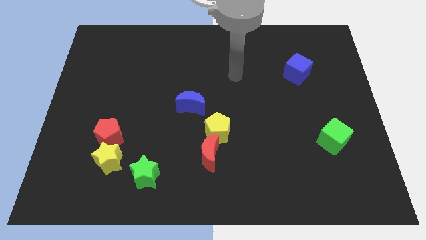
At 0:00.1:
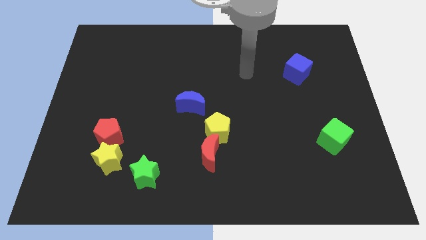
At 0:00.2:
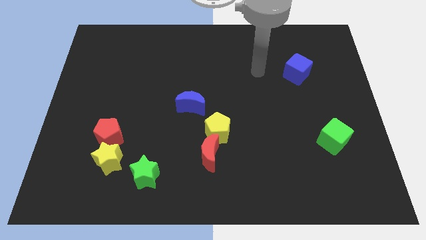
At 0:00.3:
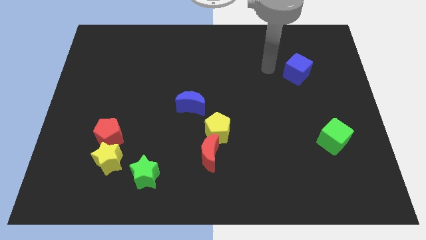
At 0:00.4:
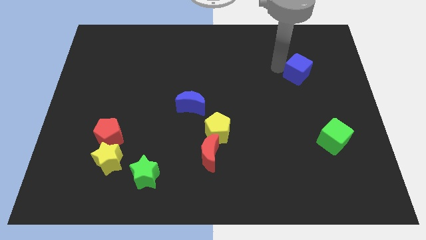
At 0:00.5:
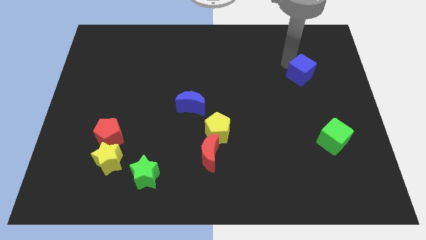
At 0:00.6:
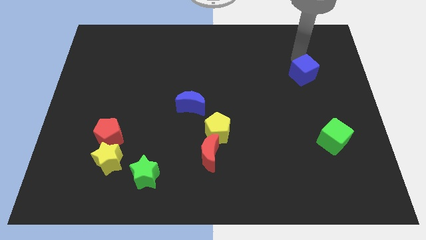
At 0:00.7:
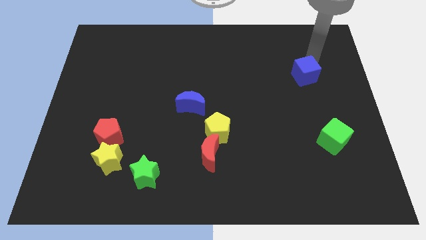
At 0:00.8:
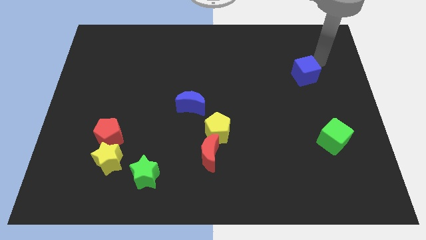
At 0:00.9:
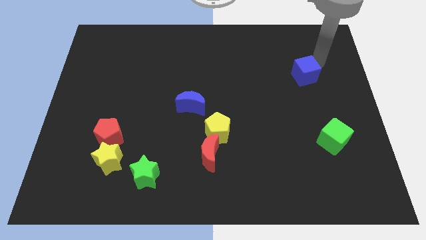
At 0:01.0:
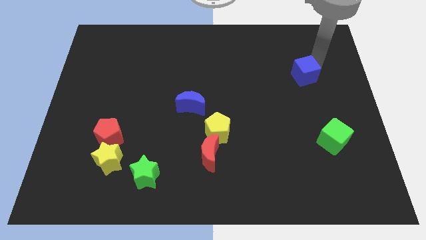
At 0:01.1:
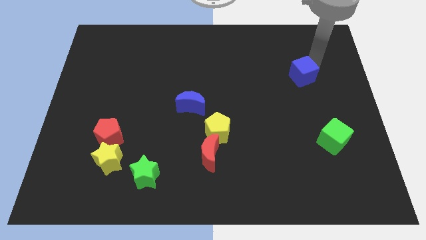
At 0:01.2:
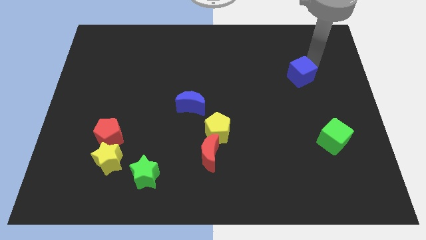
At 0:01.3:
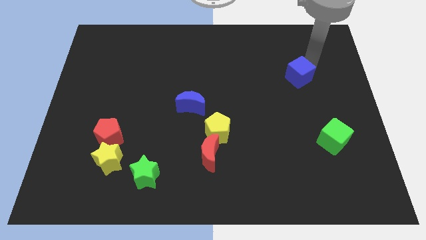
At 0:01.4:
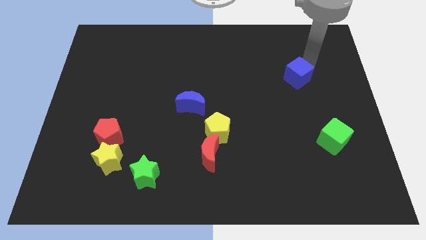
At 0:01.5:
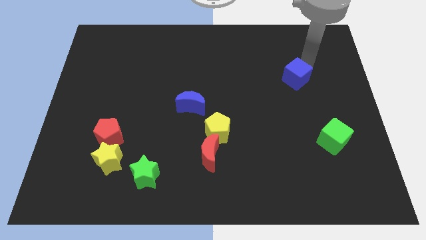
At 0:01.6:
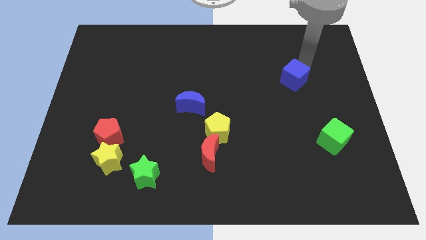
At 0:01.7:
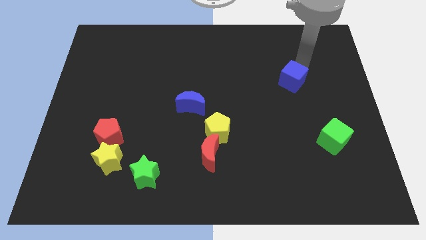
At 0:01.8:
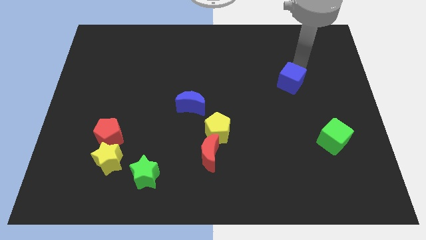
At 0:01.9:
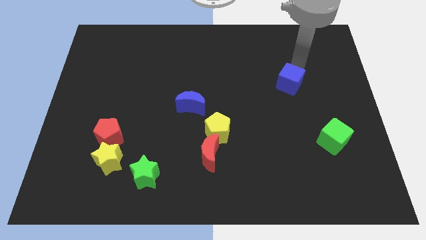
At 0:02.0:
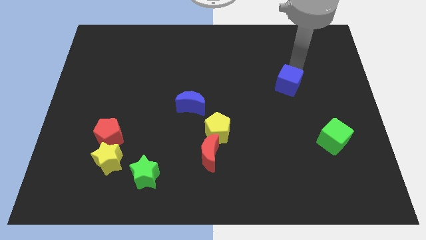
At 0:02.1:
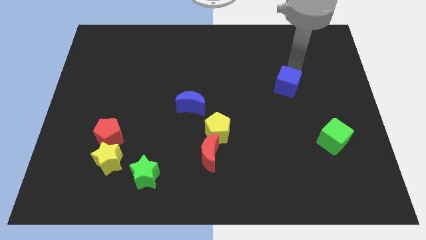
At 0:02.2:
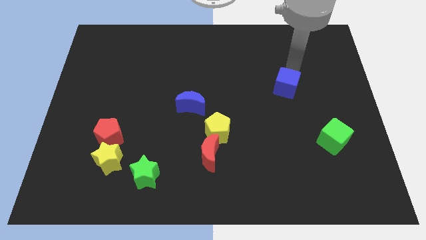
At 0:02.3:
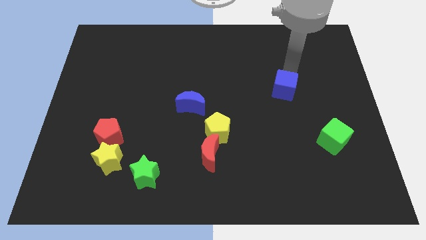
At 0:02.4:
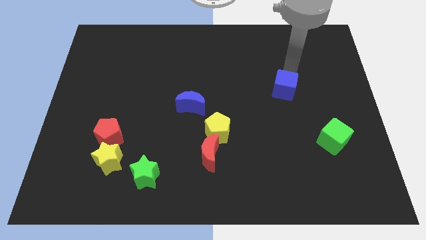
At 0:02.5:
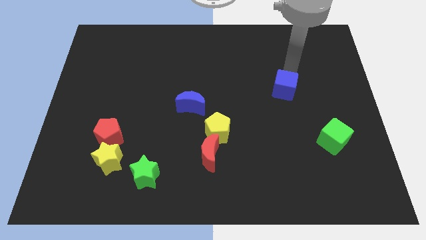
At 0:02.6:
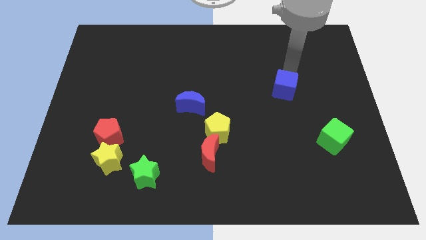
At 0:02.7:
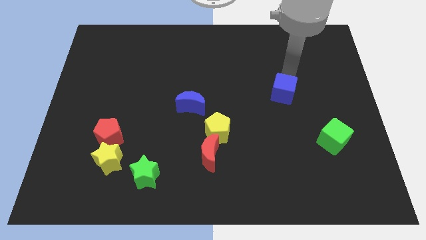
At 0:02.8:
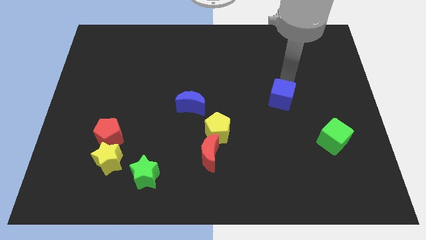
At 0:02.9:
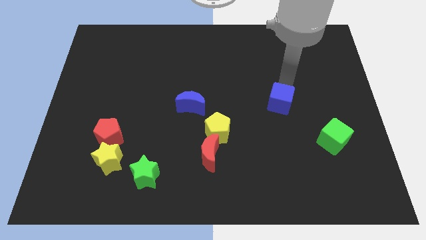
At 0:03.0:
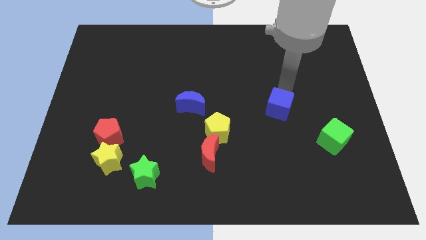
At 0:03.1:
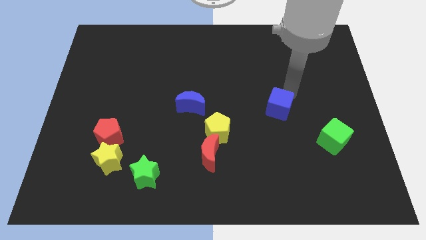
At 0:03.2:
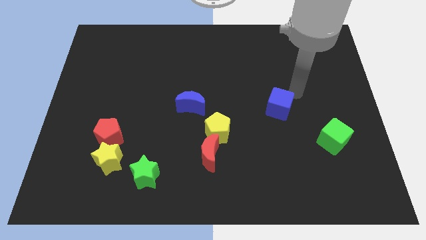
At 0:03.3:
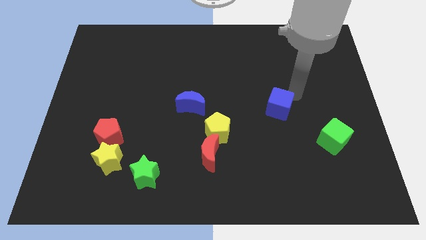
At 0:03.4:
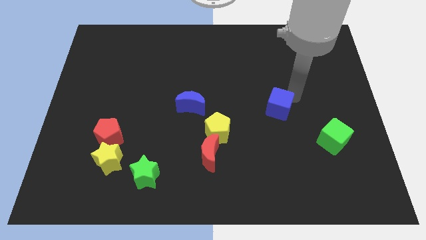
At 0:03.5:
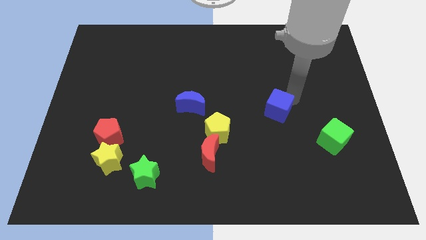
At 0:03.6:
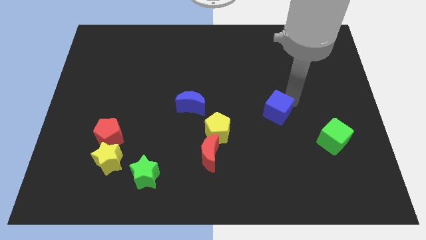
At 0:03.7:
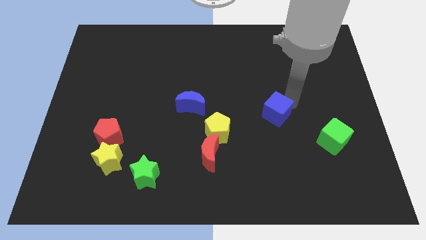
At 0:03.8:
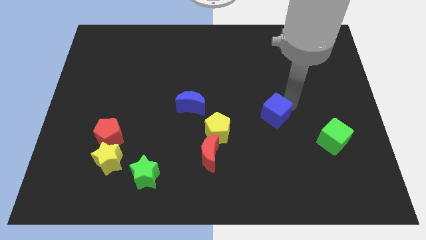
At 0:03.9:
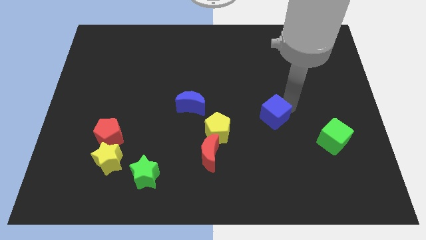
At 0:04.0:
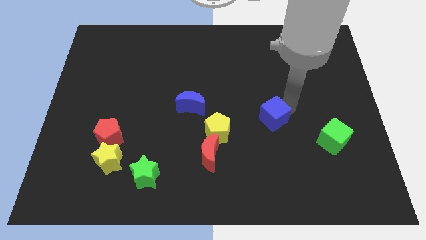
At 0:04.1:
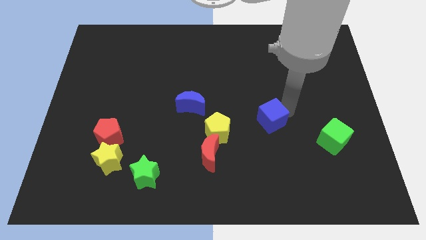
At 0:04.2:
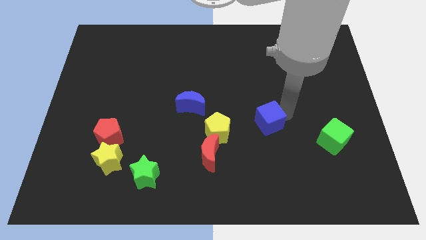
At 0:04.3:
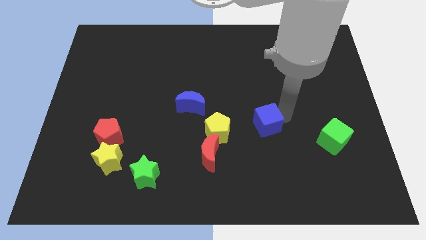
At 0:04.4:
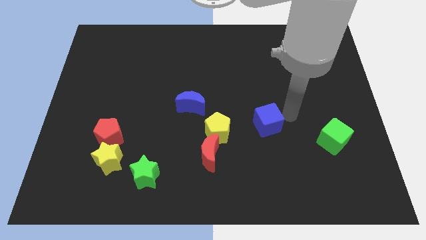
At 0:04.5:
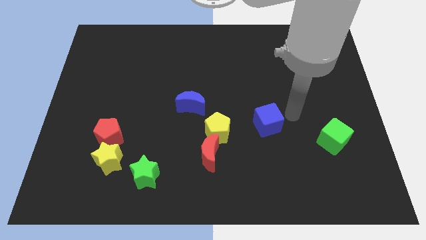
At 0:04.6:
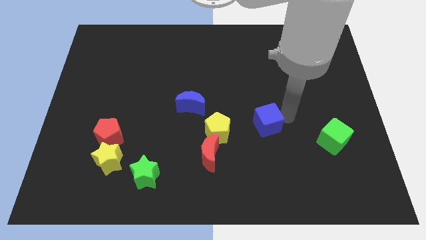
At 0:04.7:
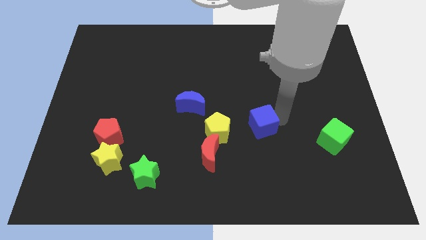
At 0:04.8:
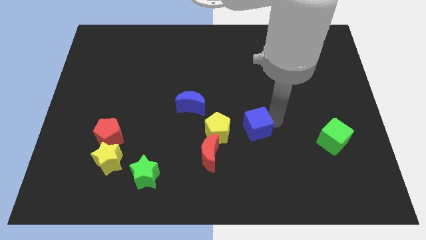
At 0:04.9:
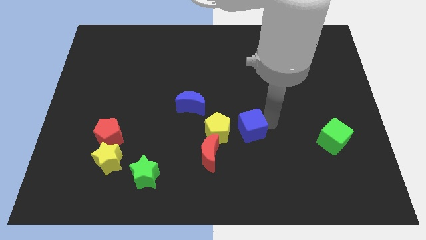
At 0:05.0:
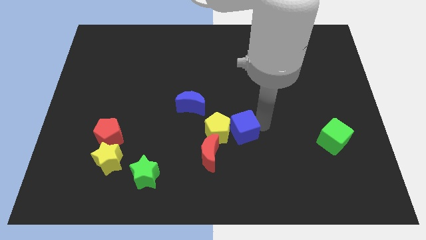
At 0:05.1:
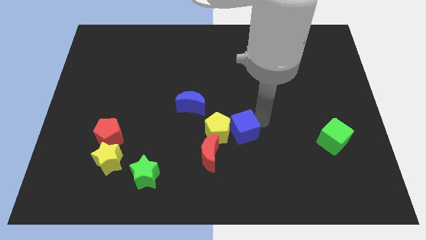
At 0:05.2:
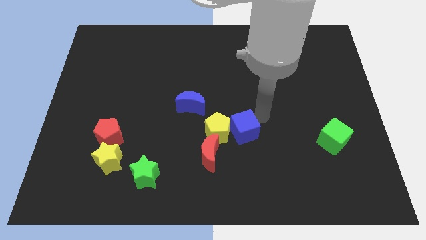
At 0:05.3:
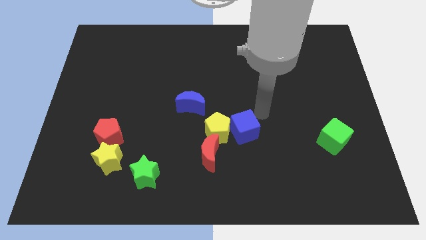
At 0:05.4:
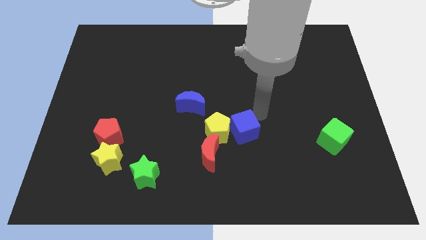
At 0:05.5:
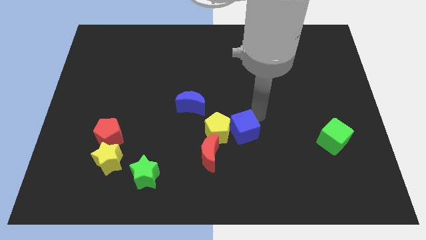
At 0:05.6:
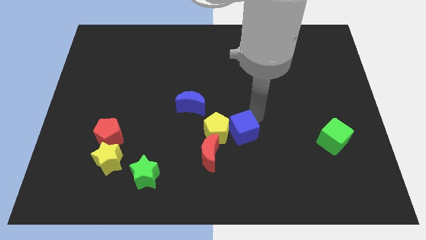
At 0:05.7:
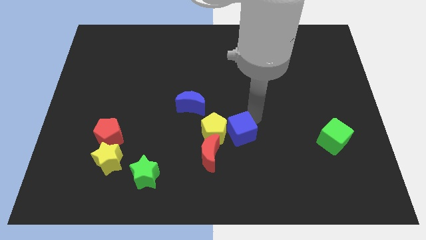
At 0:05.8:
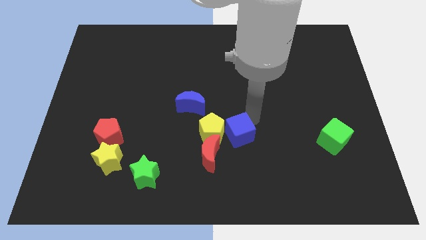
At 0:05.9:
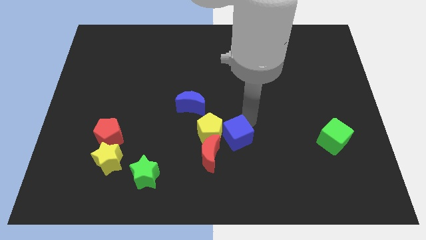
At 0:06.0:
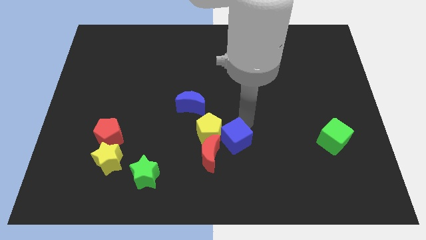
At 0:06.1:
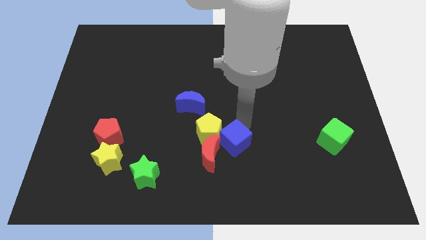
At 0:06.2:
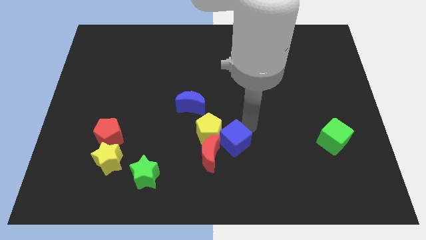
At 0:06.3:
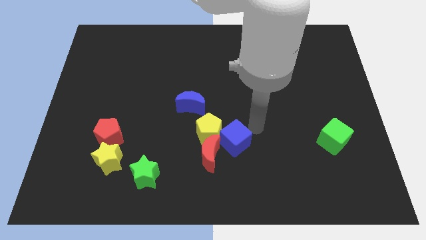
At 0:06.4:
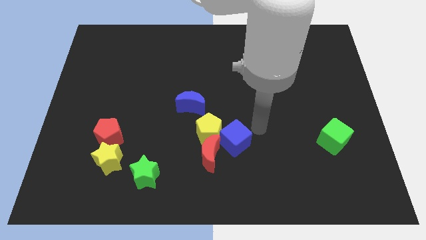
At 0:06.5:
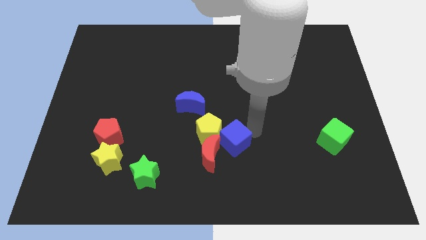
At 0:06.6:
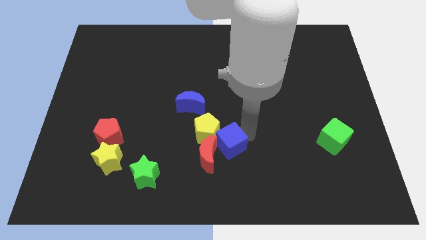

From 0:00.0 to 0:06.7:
push the blue cube next to the red moon

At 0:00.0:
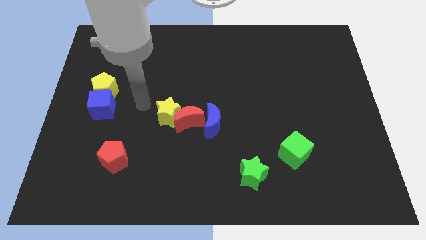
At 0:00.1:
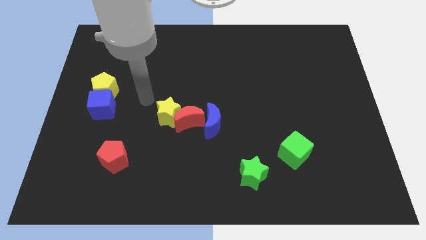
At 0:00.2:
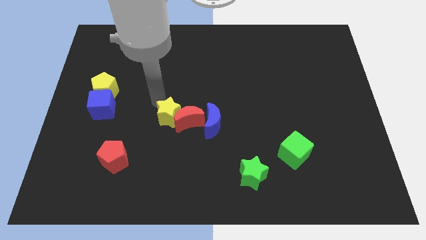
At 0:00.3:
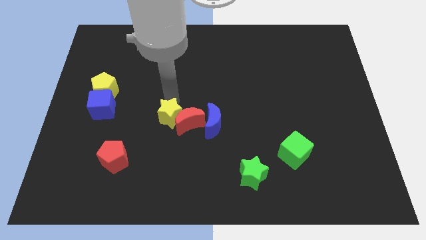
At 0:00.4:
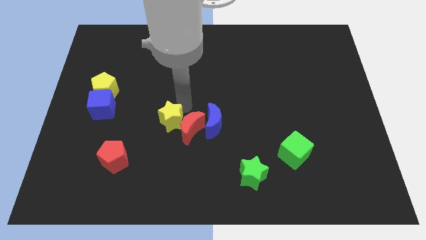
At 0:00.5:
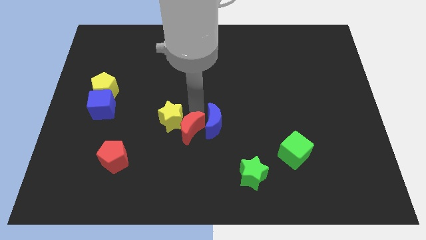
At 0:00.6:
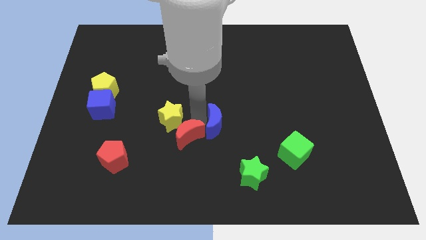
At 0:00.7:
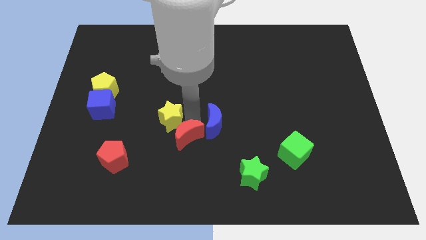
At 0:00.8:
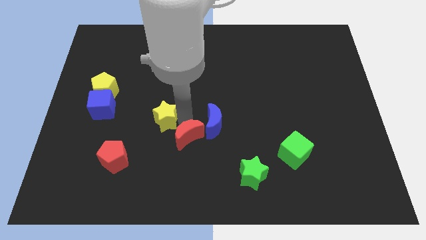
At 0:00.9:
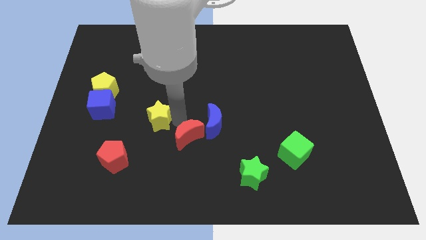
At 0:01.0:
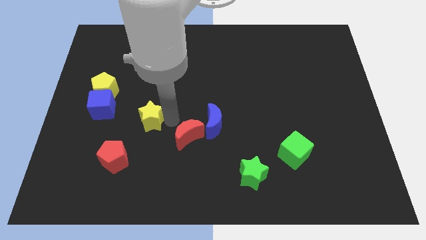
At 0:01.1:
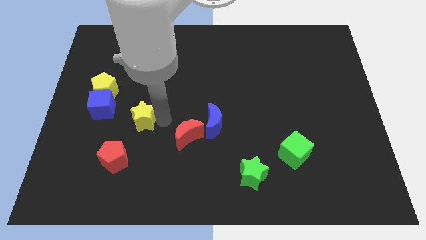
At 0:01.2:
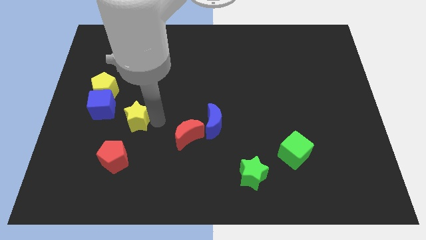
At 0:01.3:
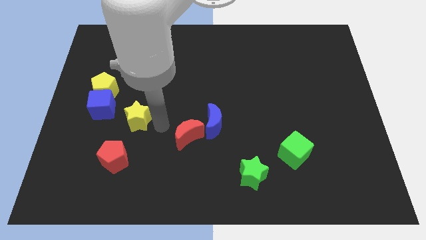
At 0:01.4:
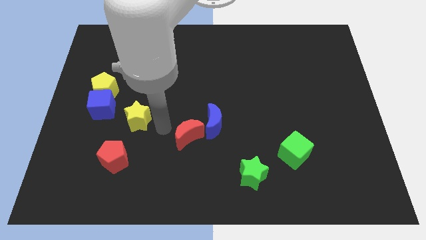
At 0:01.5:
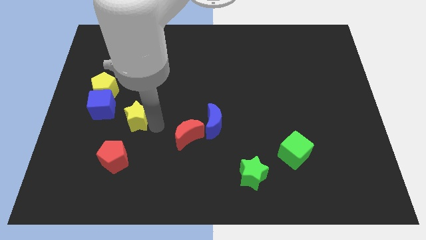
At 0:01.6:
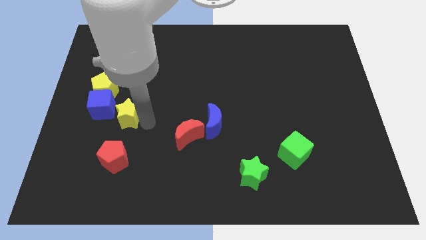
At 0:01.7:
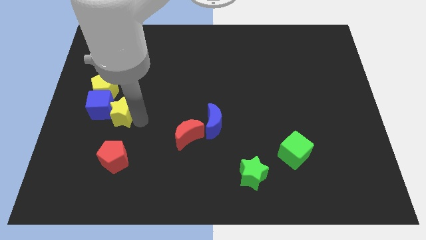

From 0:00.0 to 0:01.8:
slide the yellow star close to the blue cube
